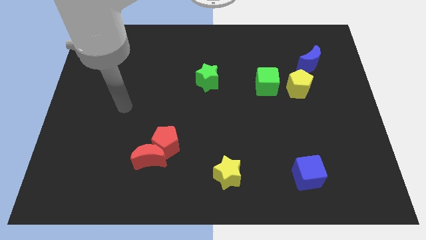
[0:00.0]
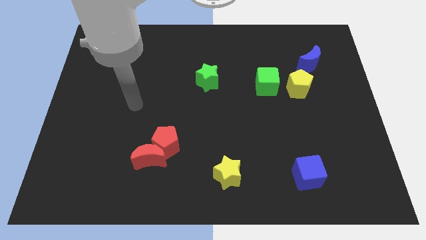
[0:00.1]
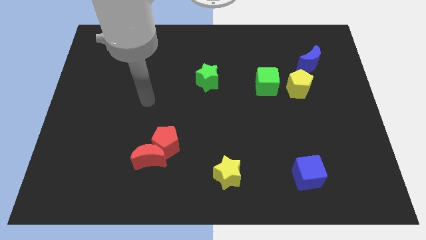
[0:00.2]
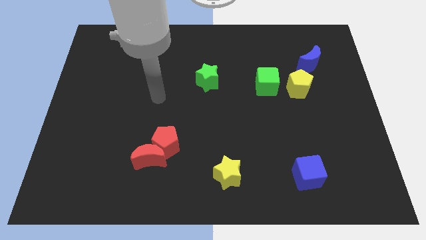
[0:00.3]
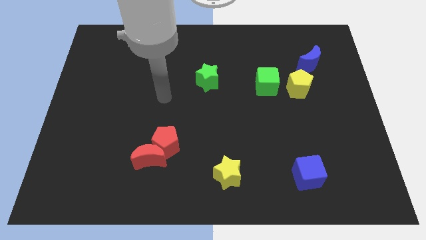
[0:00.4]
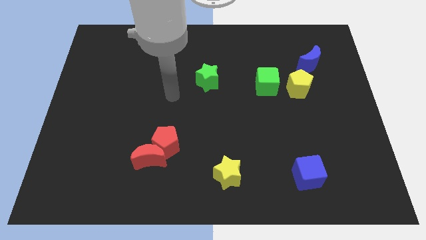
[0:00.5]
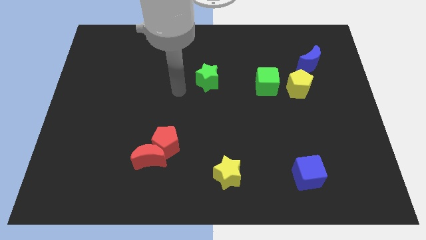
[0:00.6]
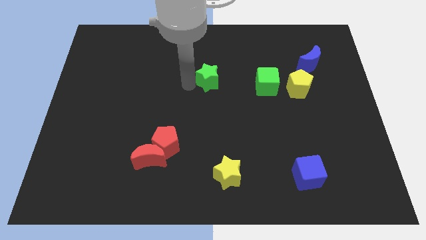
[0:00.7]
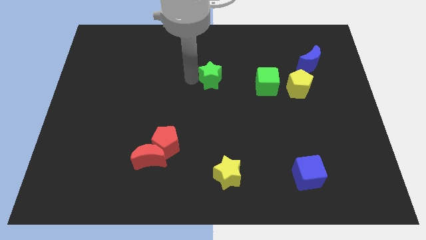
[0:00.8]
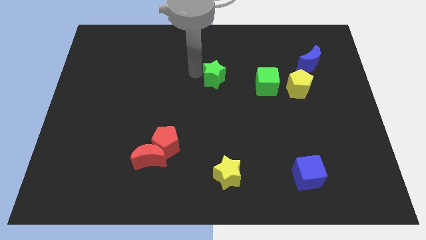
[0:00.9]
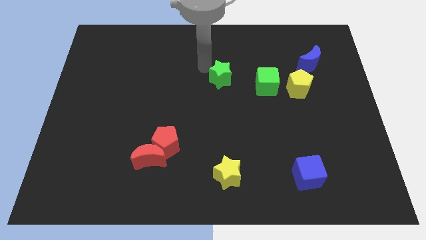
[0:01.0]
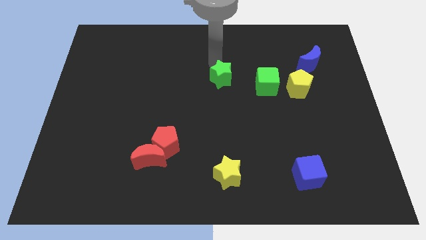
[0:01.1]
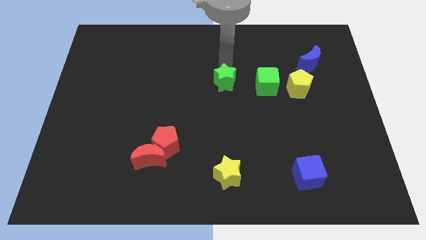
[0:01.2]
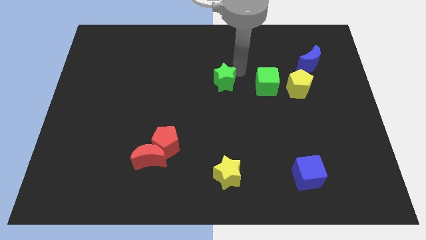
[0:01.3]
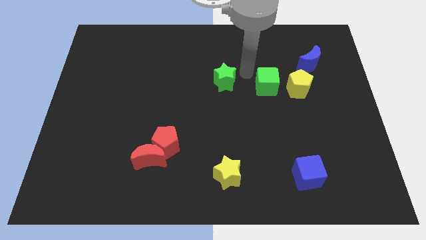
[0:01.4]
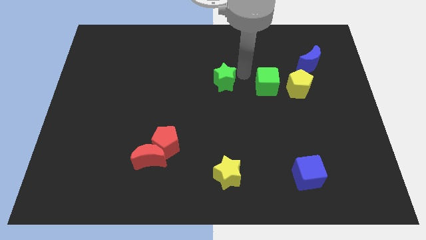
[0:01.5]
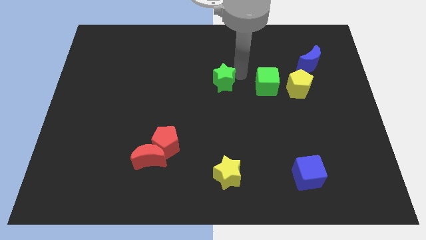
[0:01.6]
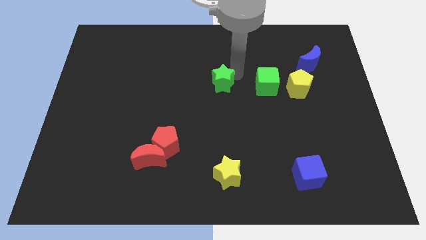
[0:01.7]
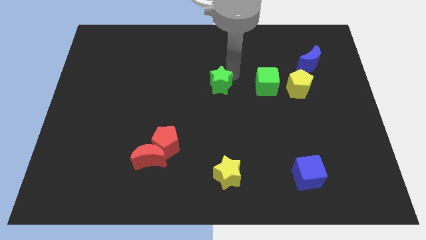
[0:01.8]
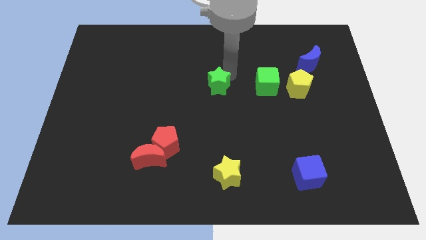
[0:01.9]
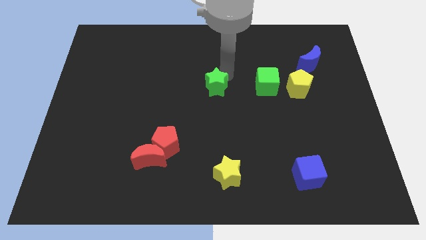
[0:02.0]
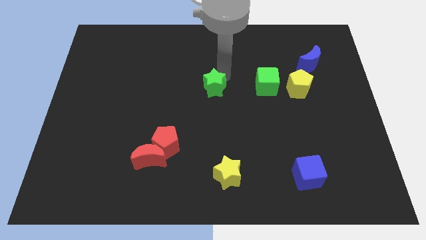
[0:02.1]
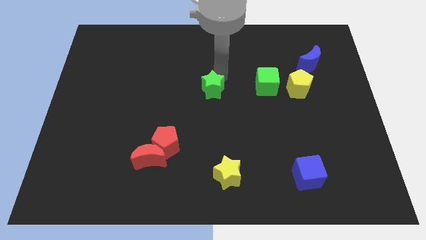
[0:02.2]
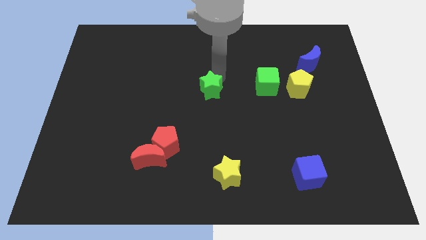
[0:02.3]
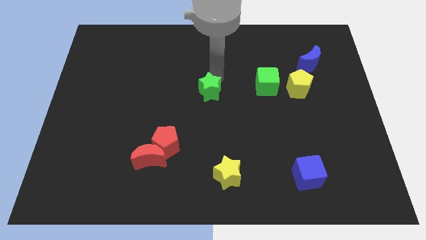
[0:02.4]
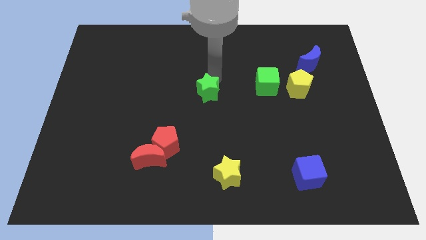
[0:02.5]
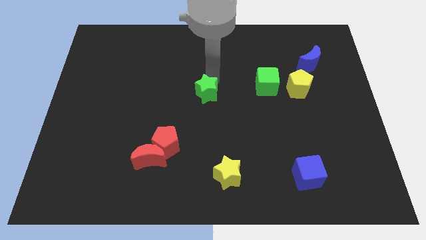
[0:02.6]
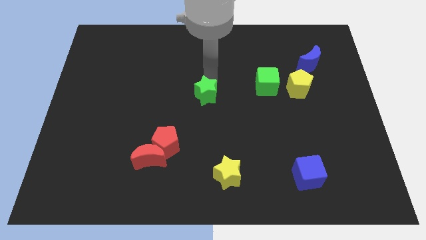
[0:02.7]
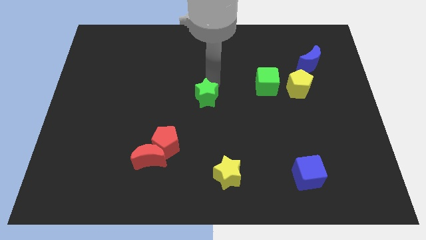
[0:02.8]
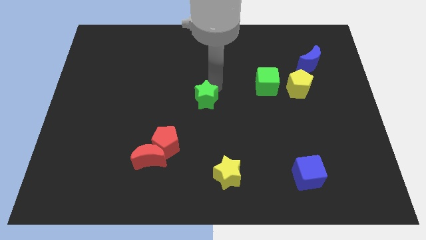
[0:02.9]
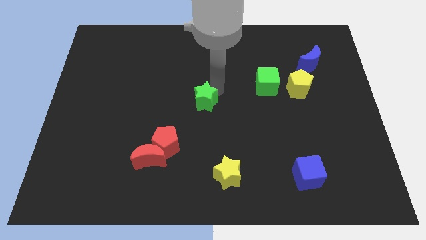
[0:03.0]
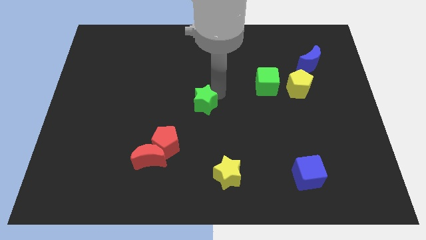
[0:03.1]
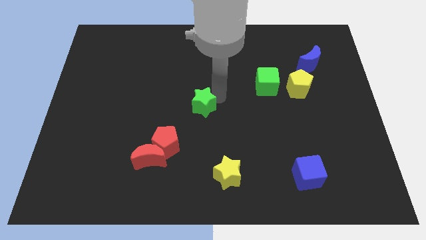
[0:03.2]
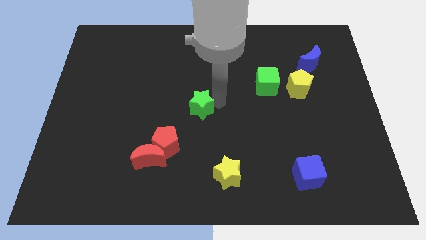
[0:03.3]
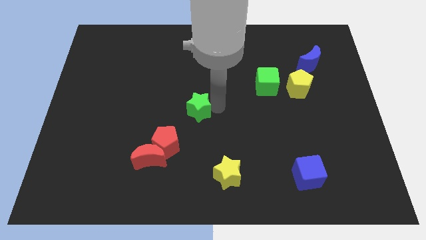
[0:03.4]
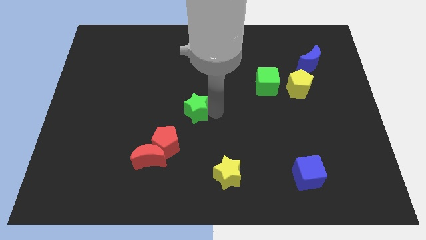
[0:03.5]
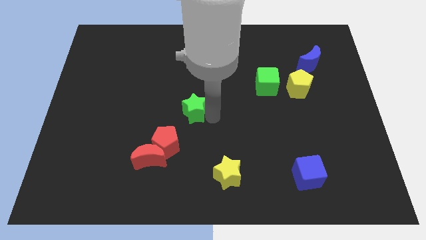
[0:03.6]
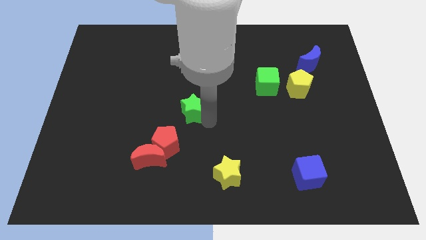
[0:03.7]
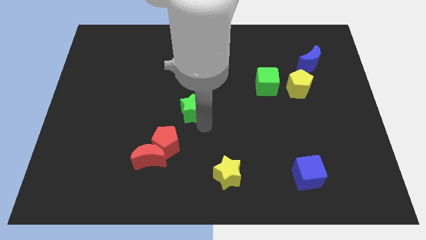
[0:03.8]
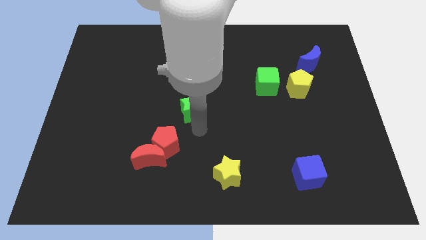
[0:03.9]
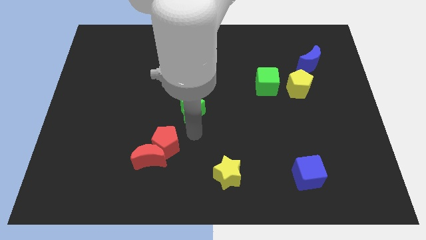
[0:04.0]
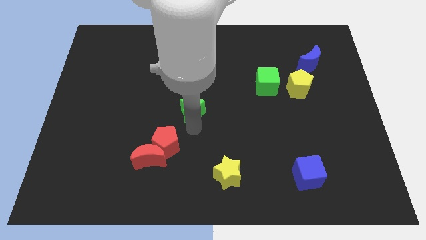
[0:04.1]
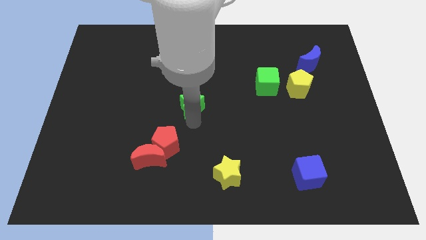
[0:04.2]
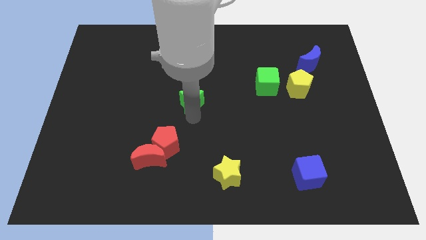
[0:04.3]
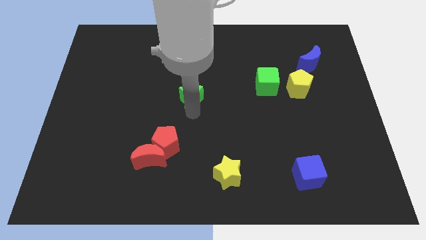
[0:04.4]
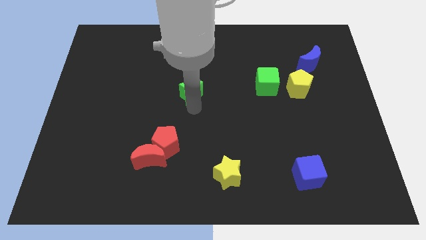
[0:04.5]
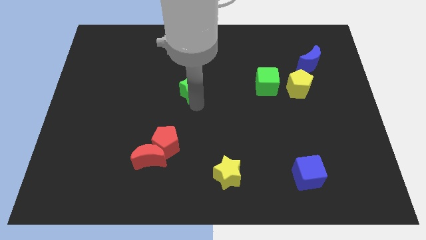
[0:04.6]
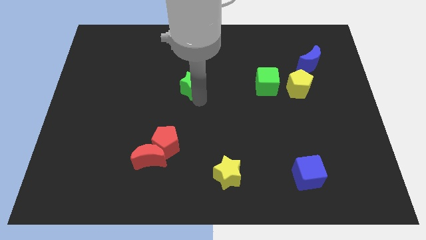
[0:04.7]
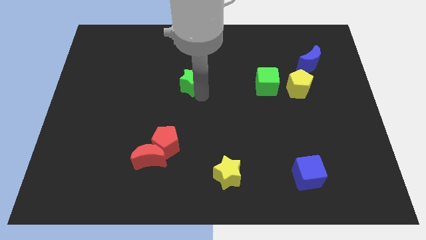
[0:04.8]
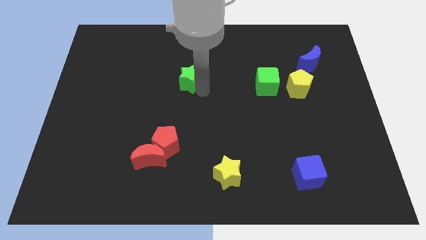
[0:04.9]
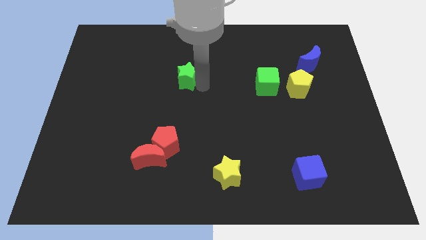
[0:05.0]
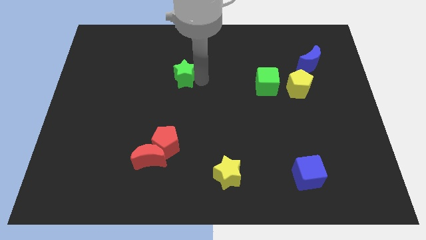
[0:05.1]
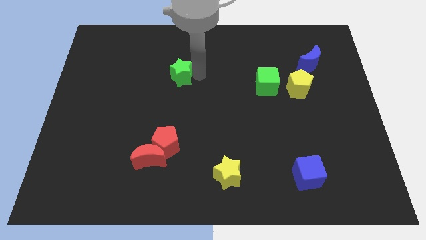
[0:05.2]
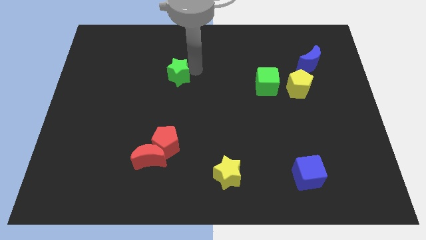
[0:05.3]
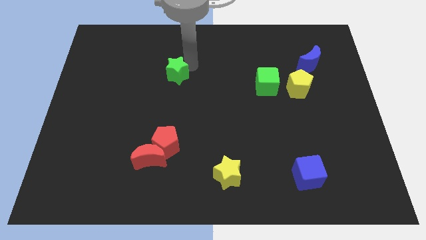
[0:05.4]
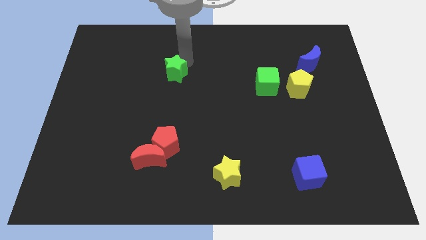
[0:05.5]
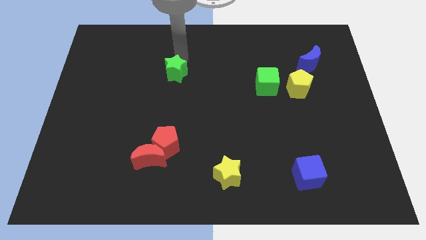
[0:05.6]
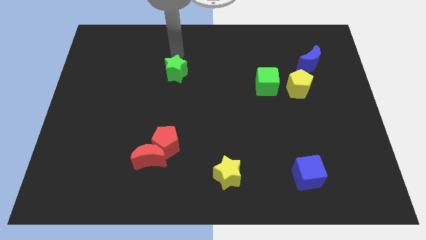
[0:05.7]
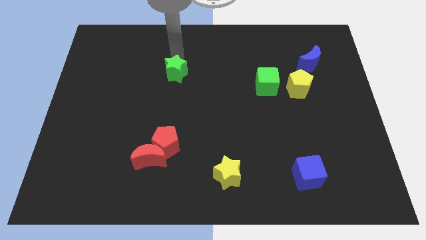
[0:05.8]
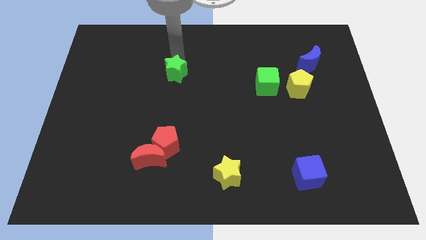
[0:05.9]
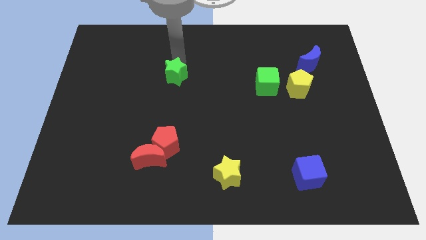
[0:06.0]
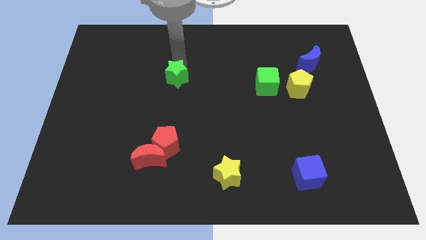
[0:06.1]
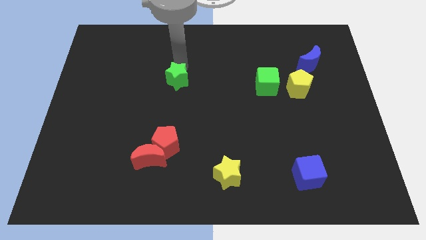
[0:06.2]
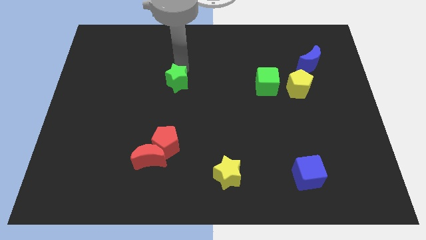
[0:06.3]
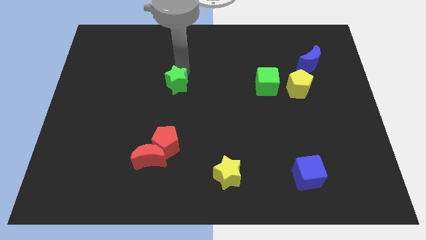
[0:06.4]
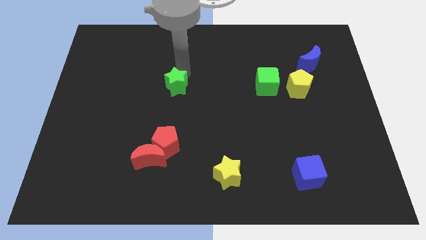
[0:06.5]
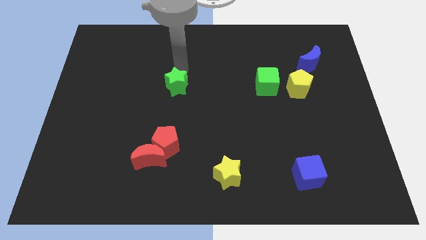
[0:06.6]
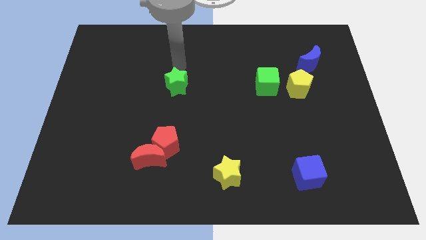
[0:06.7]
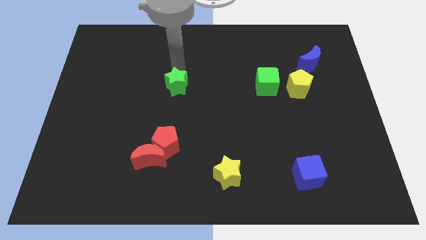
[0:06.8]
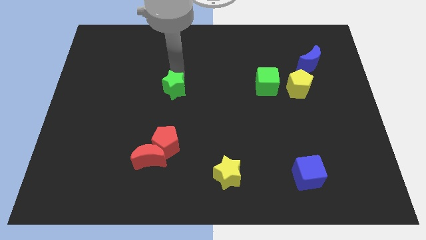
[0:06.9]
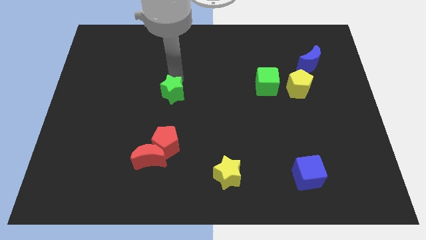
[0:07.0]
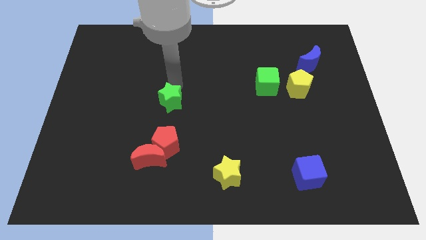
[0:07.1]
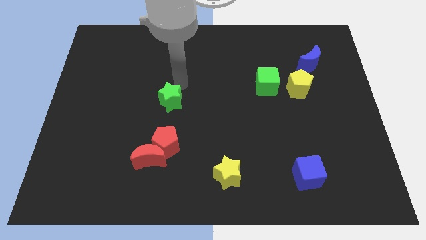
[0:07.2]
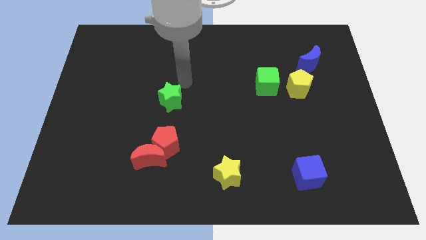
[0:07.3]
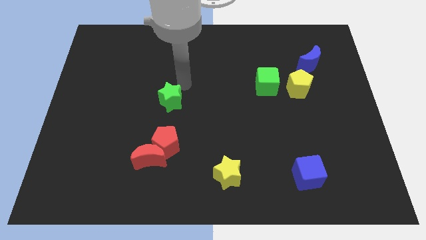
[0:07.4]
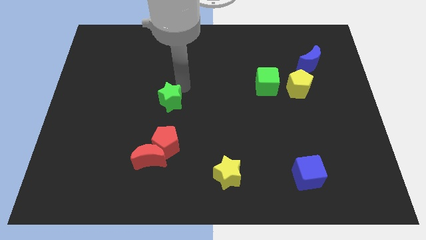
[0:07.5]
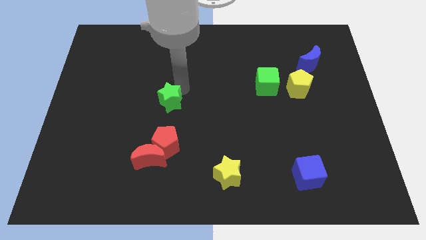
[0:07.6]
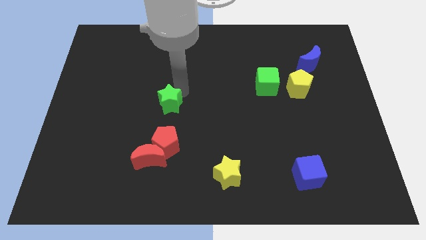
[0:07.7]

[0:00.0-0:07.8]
push the green star to the top side of the red moon
